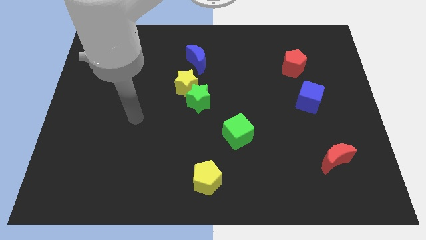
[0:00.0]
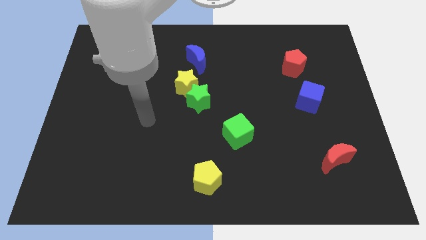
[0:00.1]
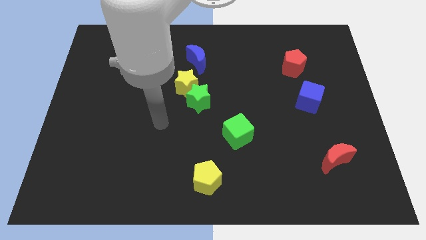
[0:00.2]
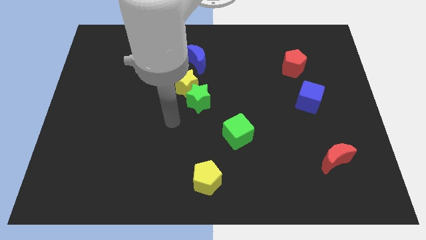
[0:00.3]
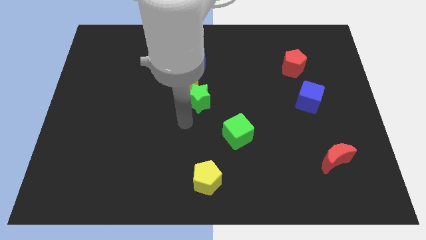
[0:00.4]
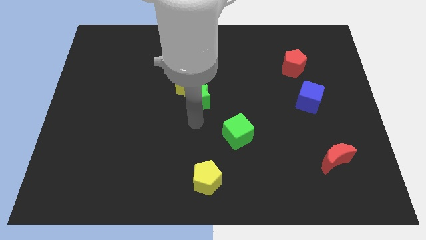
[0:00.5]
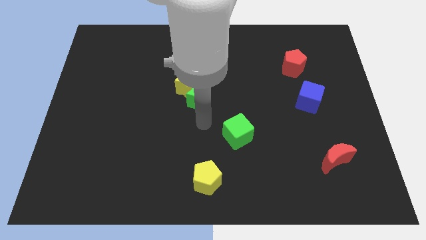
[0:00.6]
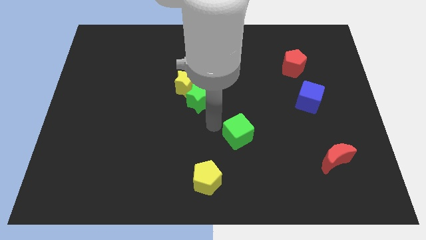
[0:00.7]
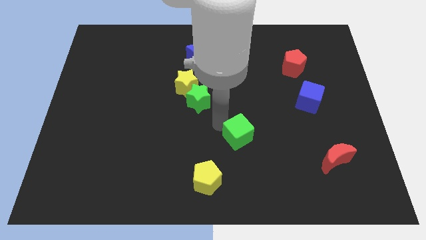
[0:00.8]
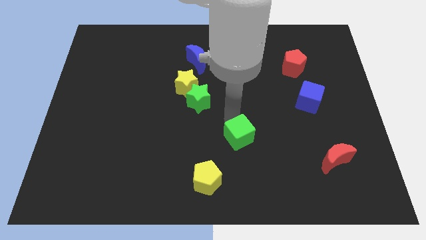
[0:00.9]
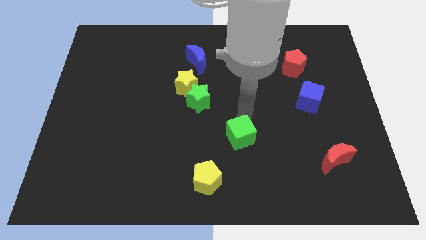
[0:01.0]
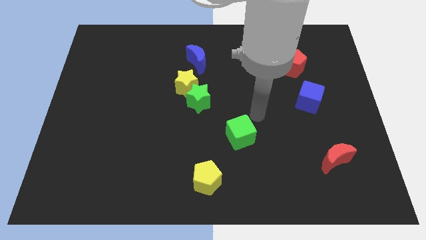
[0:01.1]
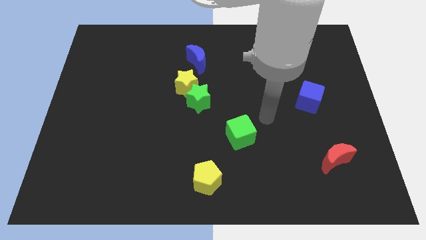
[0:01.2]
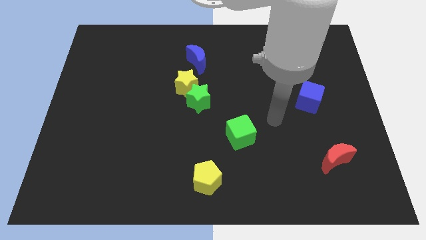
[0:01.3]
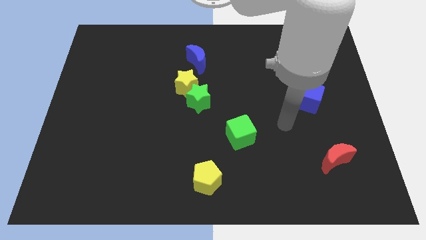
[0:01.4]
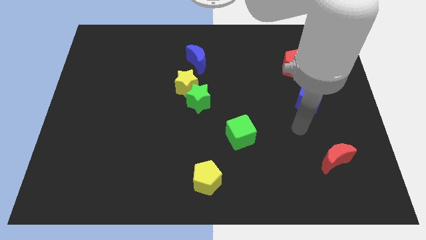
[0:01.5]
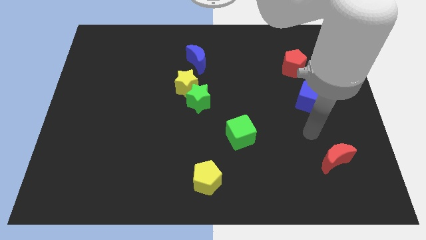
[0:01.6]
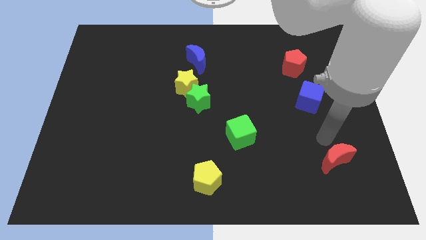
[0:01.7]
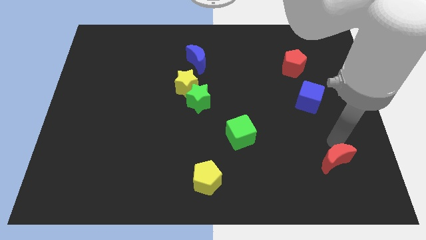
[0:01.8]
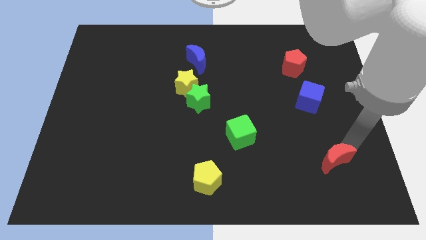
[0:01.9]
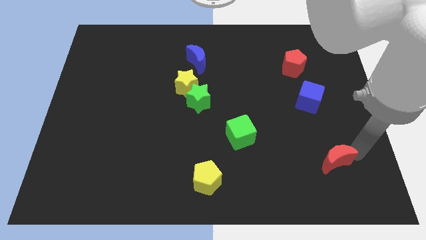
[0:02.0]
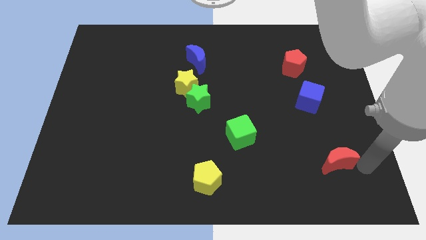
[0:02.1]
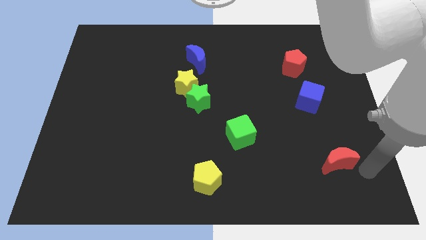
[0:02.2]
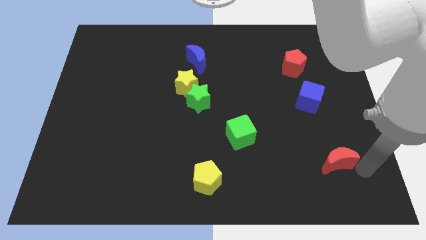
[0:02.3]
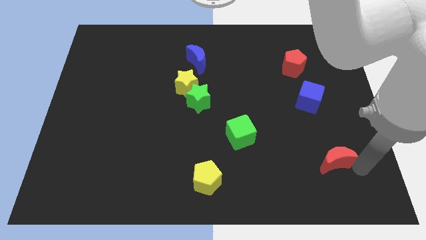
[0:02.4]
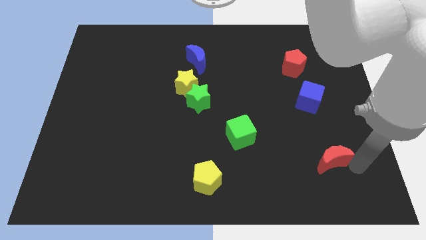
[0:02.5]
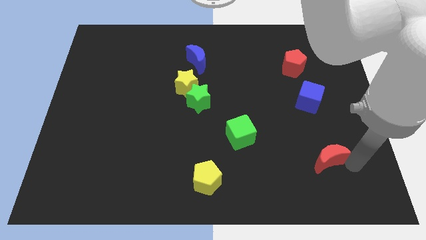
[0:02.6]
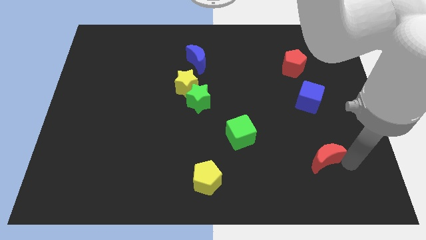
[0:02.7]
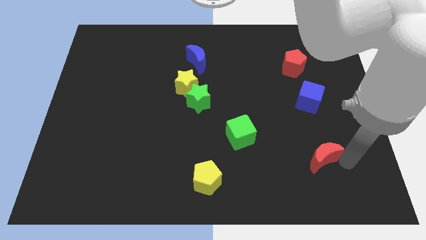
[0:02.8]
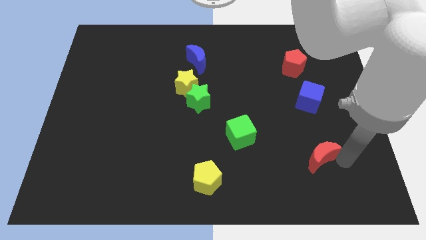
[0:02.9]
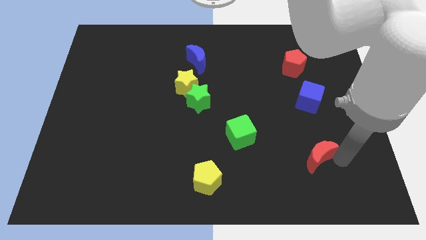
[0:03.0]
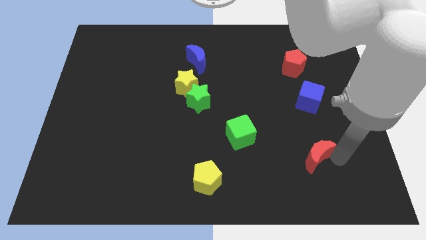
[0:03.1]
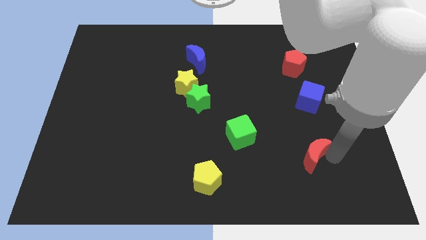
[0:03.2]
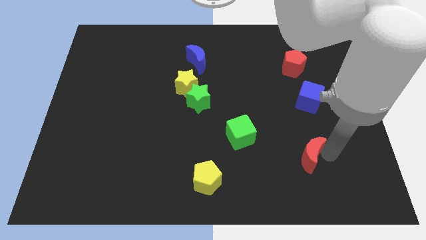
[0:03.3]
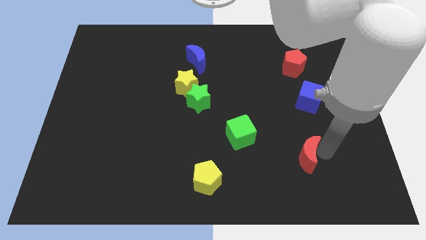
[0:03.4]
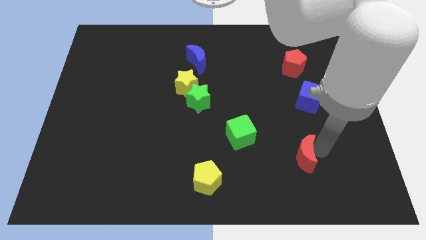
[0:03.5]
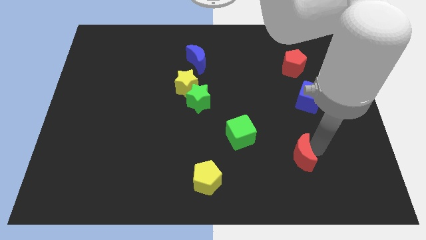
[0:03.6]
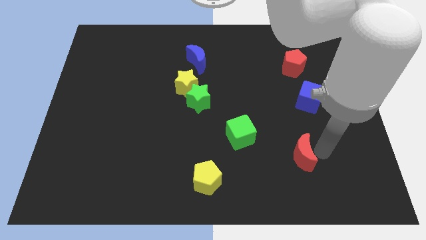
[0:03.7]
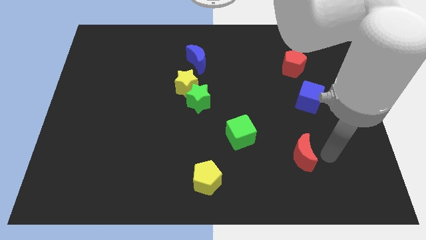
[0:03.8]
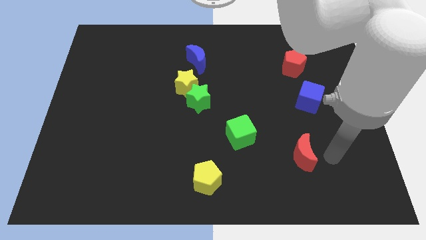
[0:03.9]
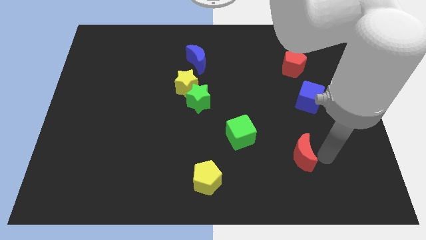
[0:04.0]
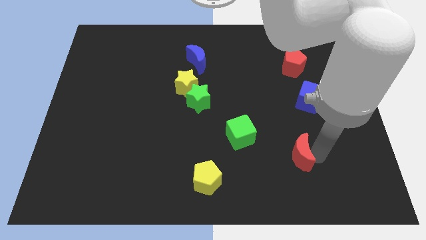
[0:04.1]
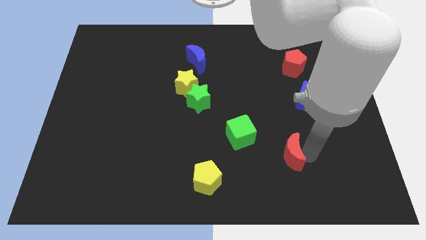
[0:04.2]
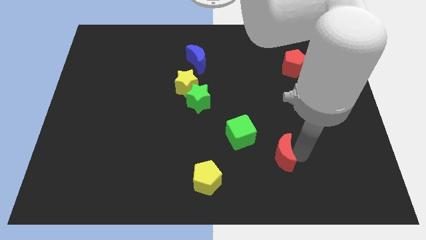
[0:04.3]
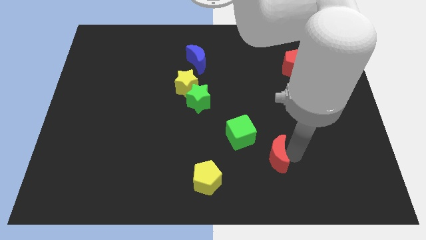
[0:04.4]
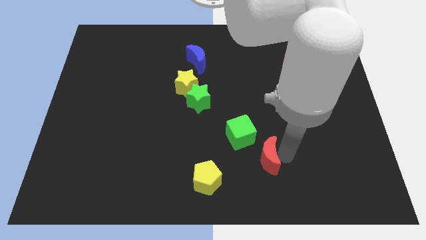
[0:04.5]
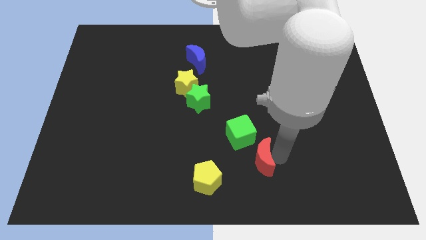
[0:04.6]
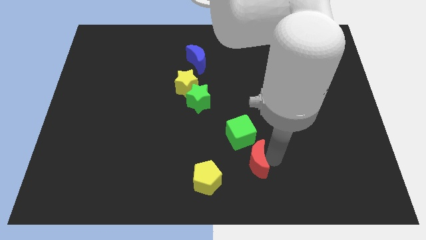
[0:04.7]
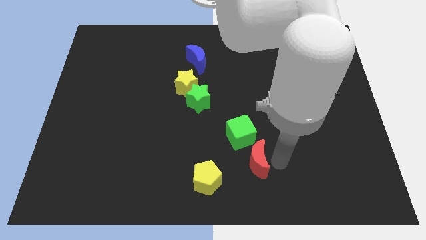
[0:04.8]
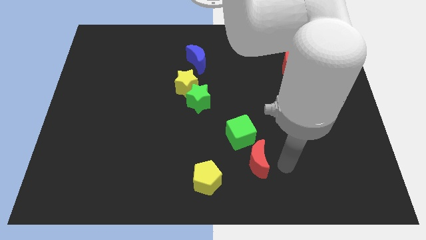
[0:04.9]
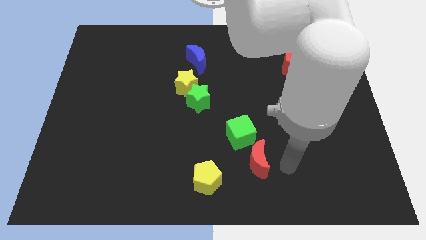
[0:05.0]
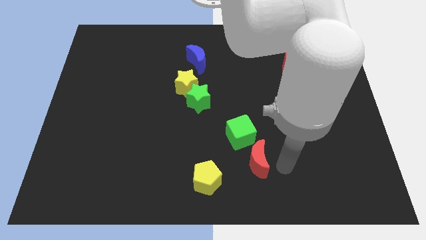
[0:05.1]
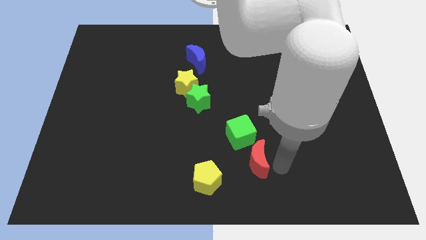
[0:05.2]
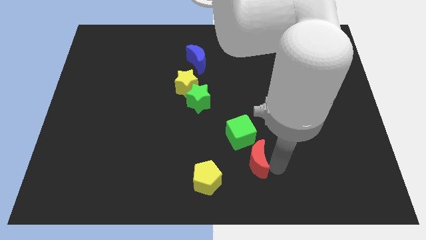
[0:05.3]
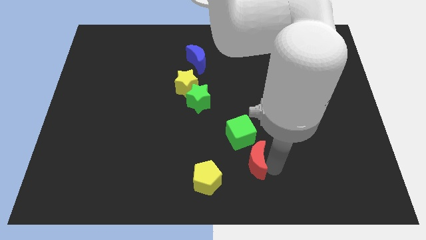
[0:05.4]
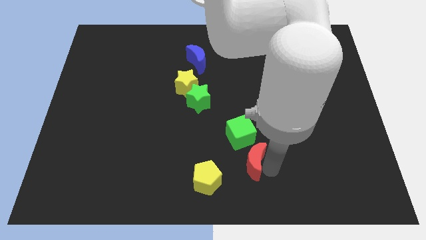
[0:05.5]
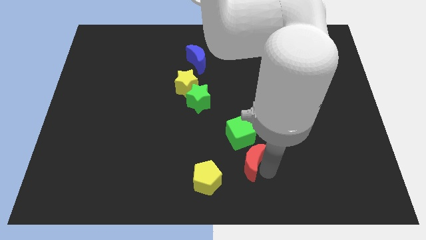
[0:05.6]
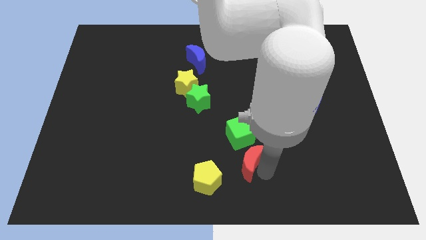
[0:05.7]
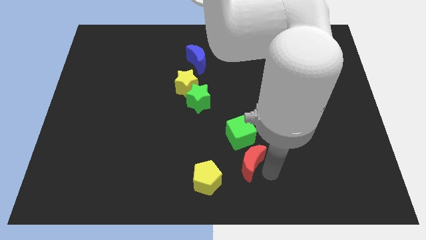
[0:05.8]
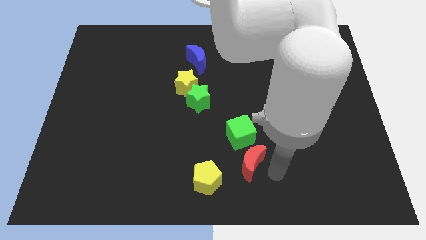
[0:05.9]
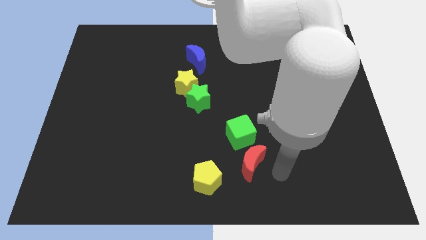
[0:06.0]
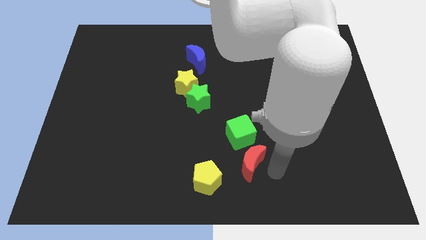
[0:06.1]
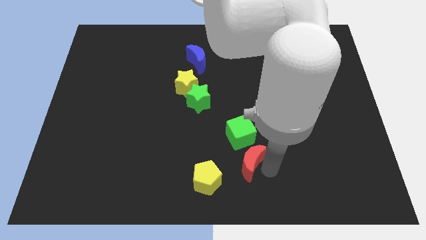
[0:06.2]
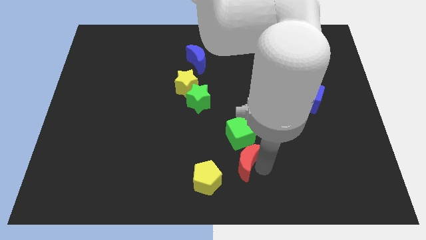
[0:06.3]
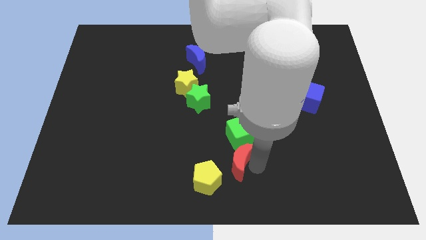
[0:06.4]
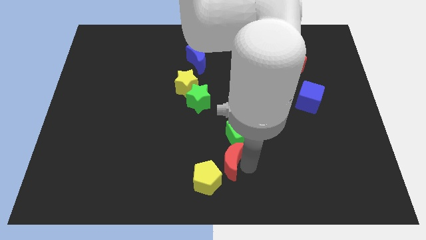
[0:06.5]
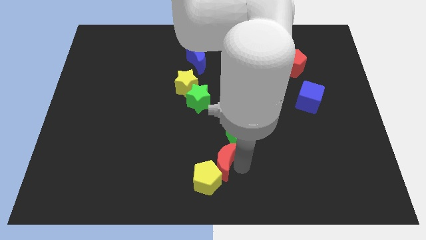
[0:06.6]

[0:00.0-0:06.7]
move the red moon to the top side of the yellow pentagon

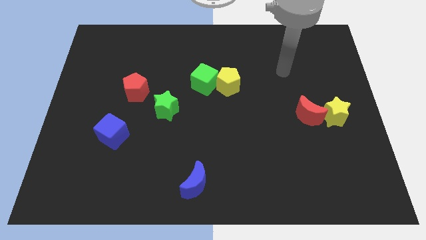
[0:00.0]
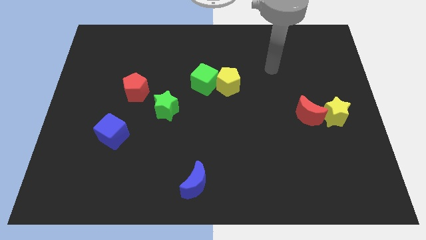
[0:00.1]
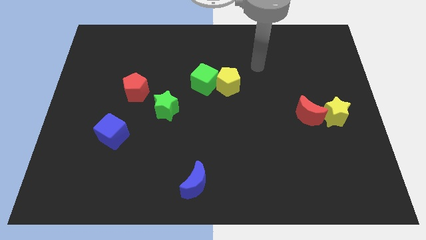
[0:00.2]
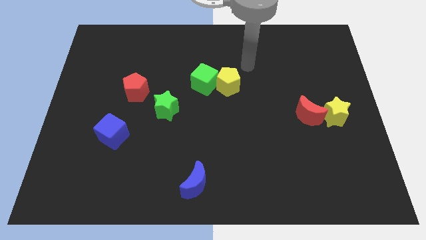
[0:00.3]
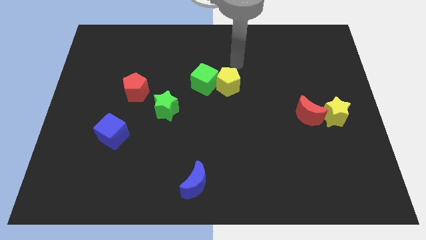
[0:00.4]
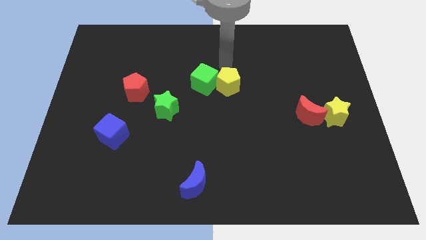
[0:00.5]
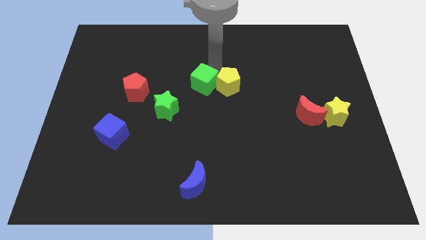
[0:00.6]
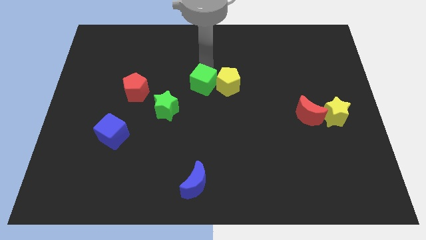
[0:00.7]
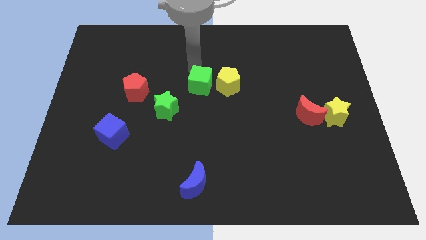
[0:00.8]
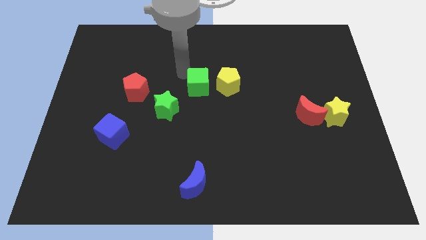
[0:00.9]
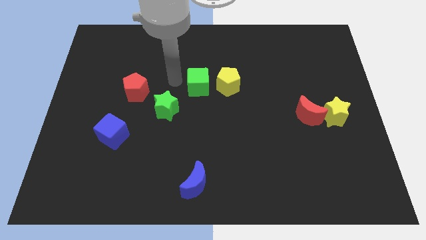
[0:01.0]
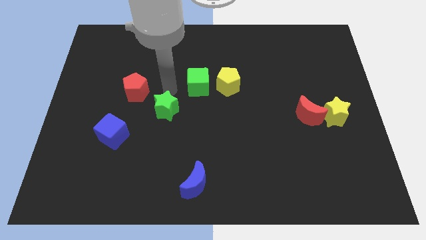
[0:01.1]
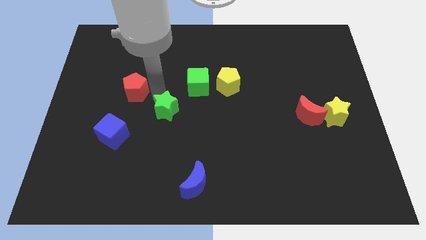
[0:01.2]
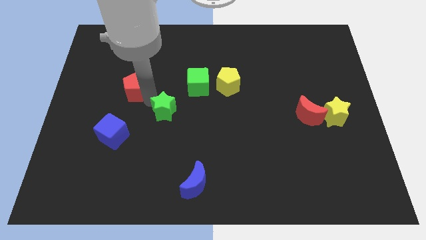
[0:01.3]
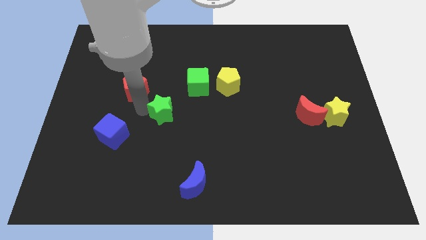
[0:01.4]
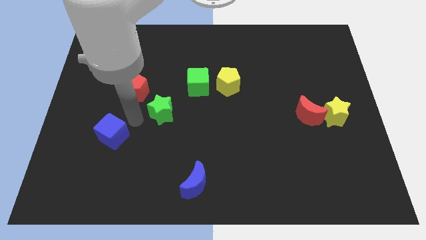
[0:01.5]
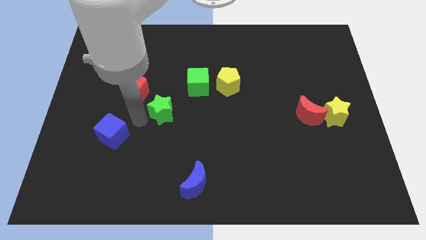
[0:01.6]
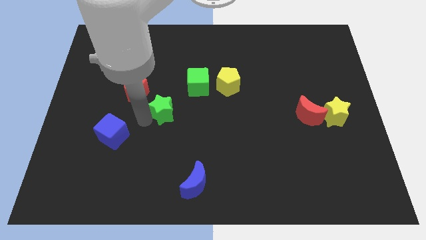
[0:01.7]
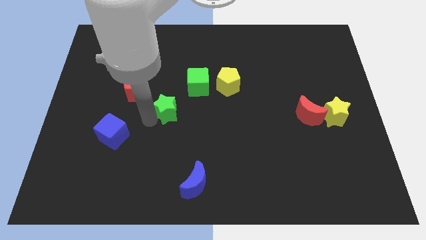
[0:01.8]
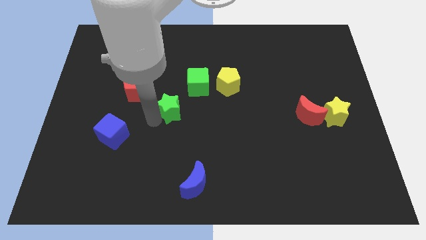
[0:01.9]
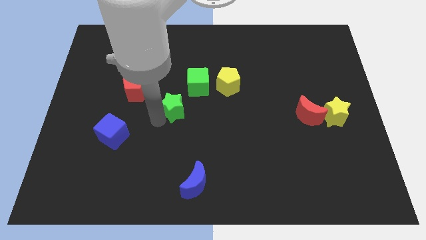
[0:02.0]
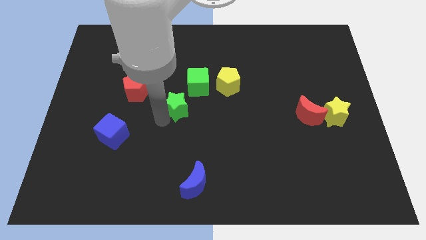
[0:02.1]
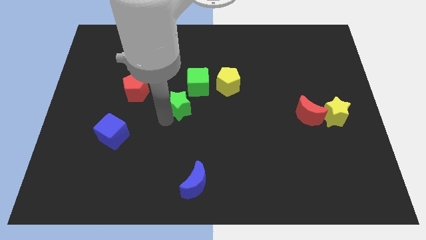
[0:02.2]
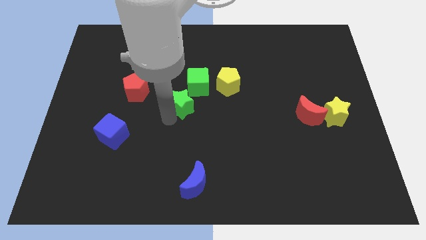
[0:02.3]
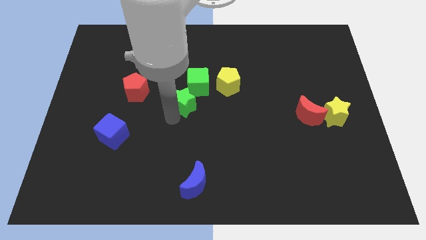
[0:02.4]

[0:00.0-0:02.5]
move the green star to the bottom left side of the yellow pentagon
